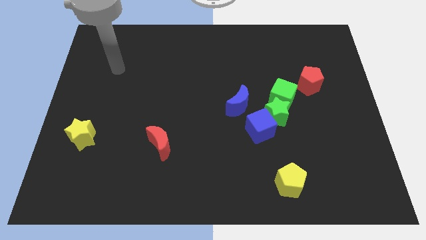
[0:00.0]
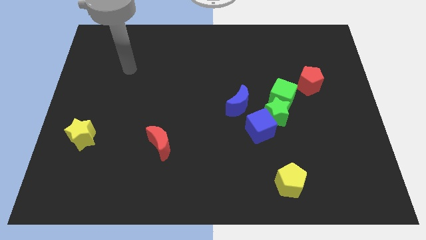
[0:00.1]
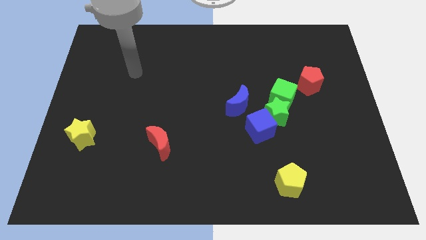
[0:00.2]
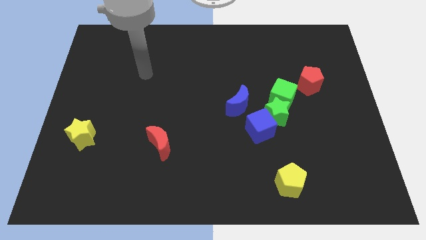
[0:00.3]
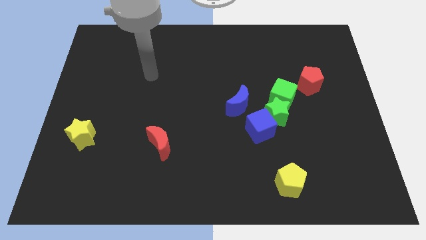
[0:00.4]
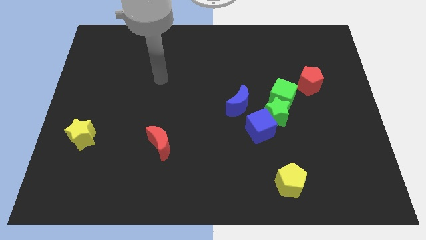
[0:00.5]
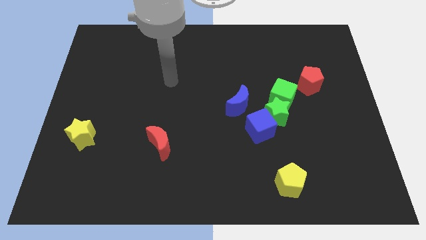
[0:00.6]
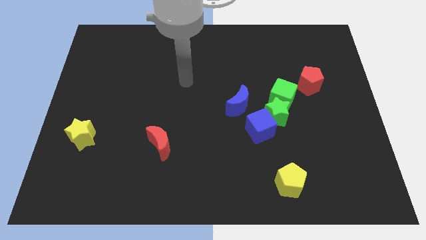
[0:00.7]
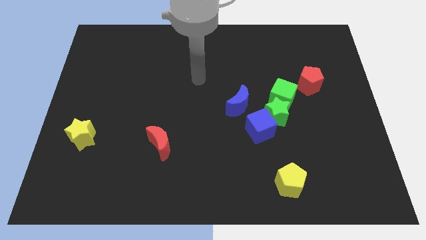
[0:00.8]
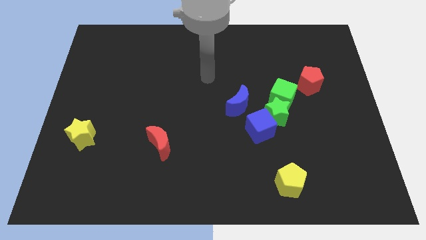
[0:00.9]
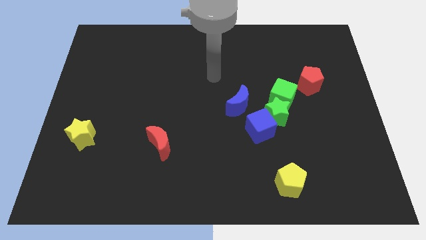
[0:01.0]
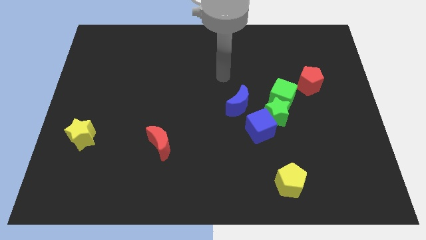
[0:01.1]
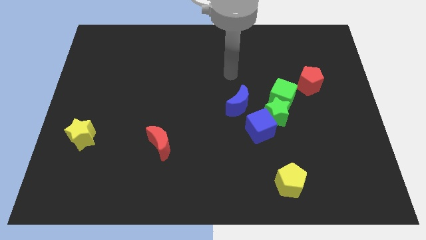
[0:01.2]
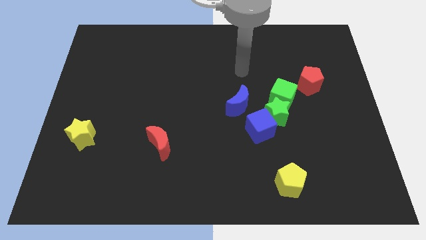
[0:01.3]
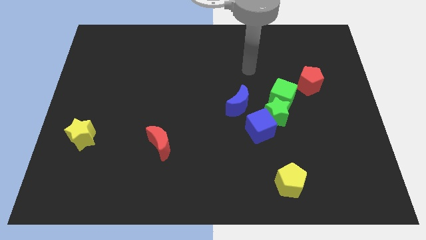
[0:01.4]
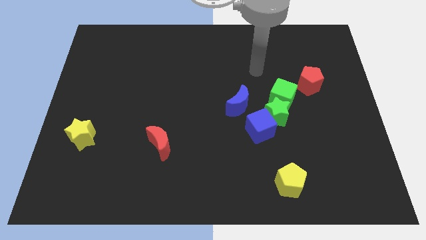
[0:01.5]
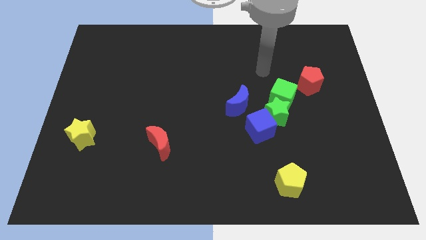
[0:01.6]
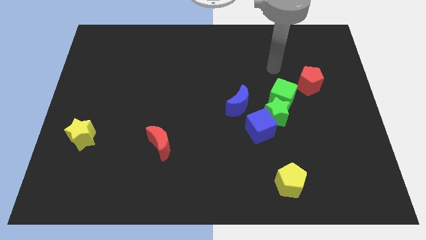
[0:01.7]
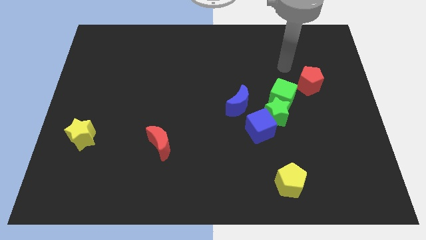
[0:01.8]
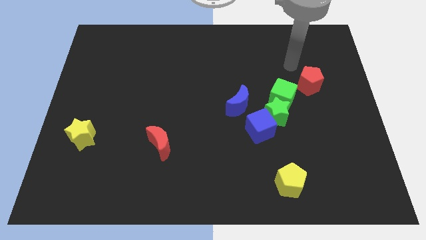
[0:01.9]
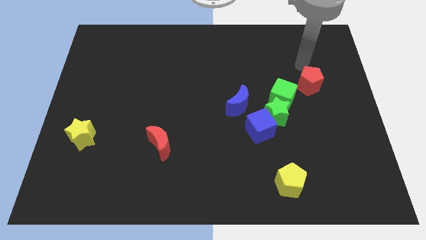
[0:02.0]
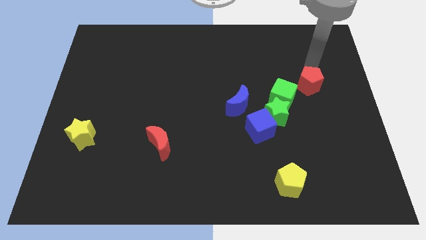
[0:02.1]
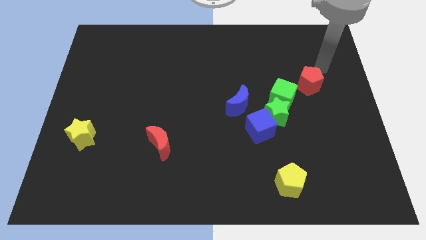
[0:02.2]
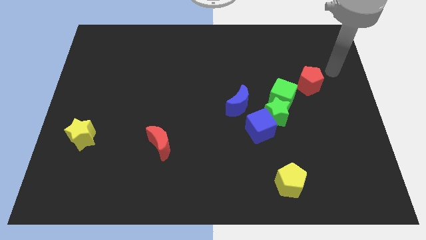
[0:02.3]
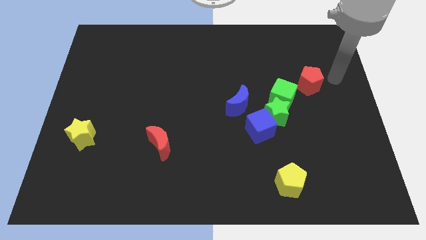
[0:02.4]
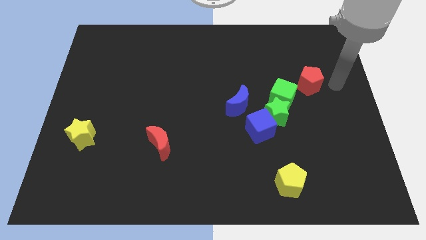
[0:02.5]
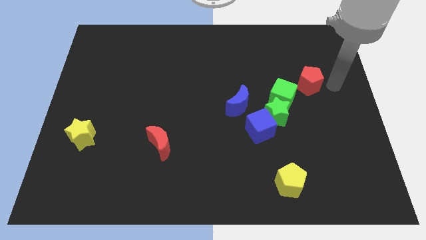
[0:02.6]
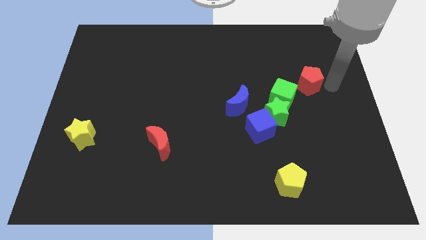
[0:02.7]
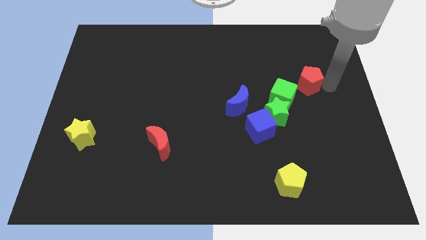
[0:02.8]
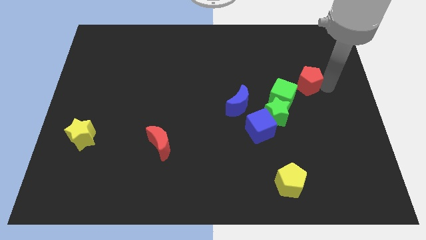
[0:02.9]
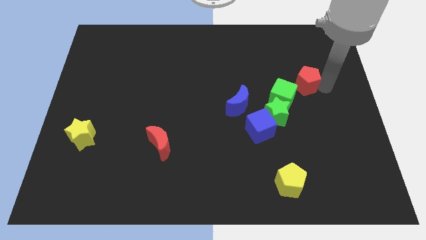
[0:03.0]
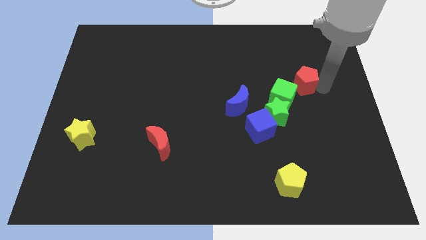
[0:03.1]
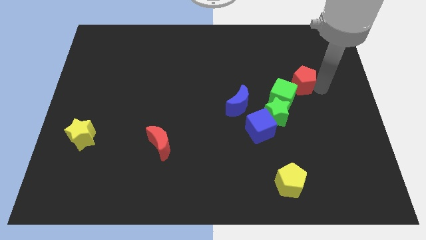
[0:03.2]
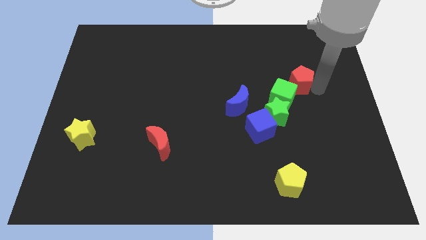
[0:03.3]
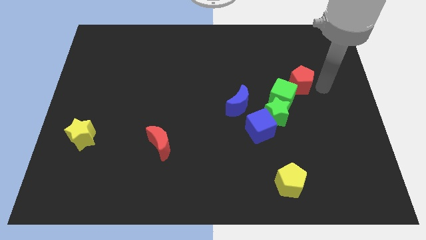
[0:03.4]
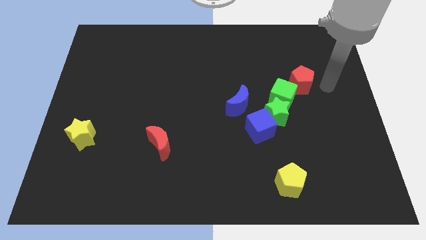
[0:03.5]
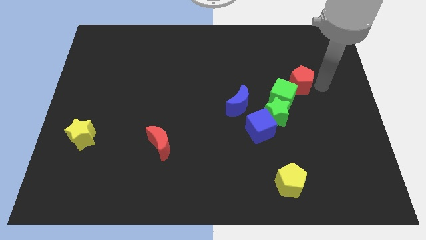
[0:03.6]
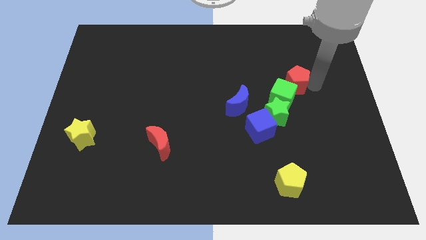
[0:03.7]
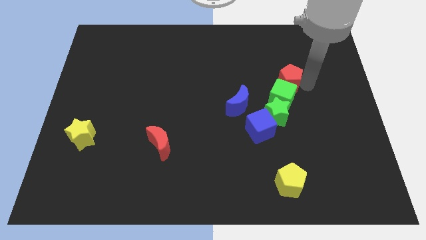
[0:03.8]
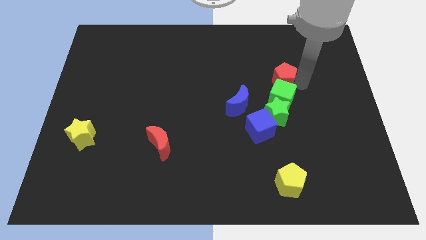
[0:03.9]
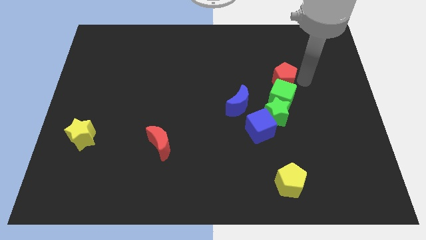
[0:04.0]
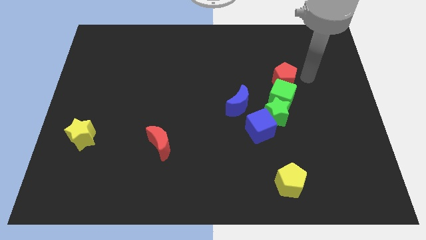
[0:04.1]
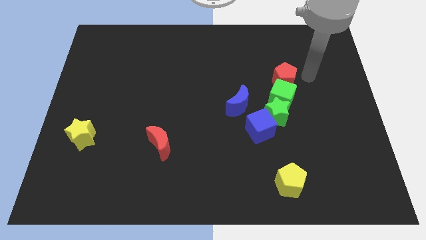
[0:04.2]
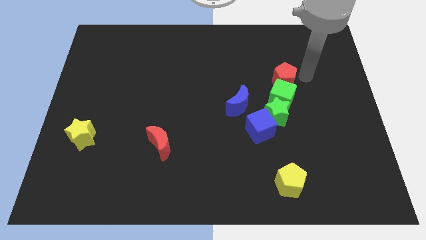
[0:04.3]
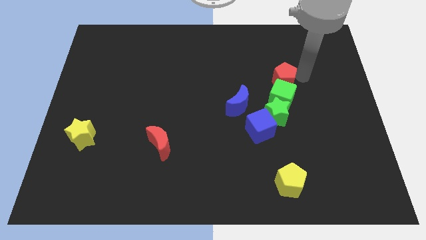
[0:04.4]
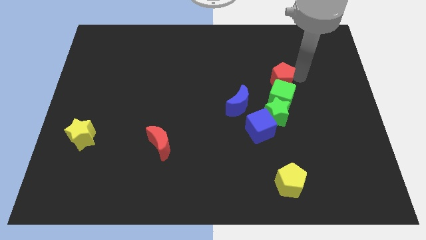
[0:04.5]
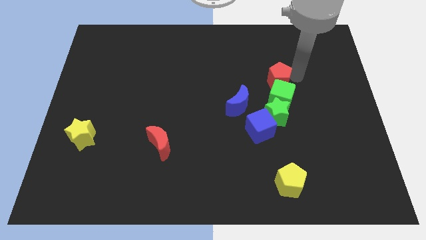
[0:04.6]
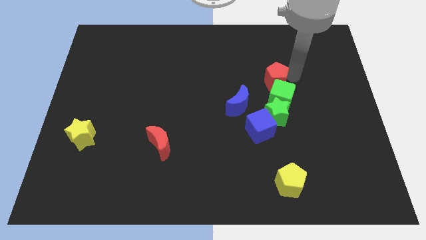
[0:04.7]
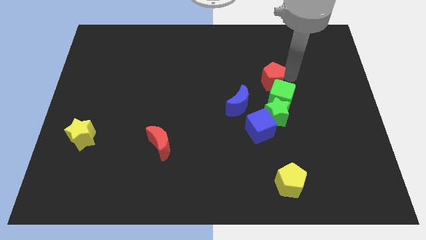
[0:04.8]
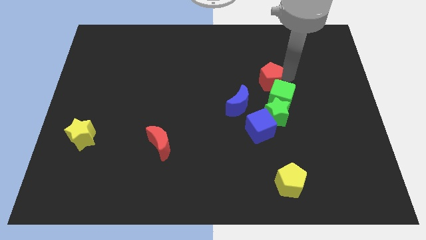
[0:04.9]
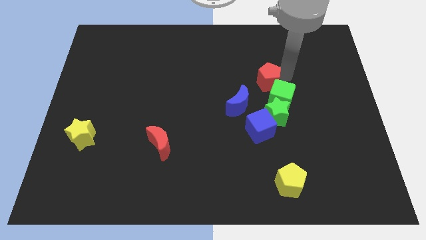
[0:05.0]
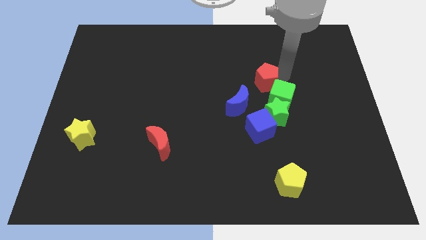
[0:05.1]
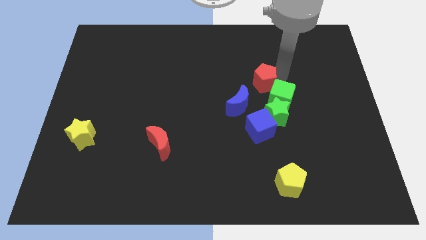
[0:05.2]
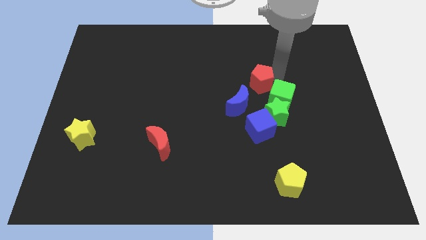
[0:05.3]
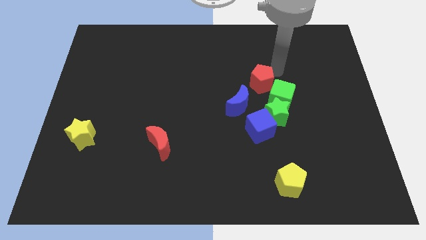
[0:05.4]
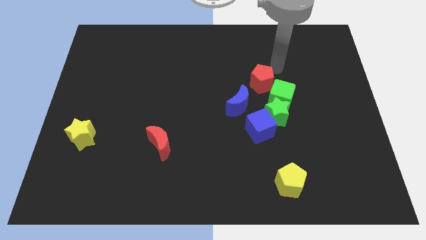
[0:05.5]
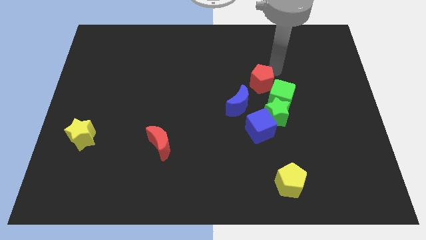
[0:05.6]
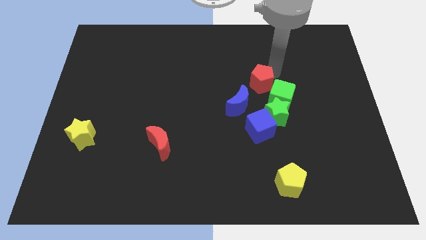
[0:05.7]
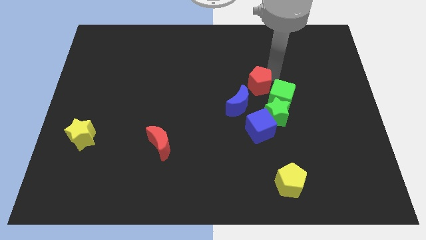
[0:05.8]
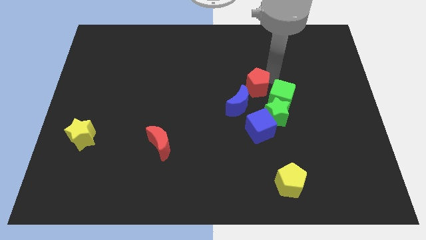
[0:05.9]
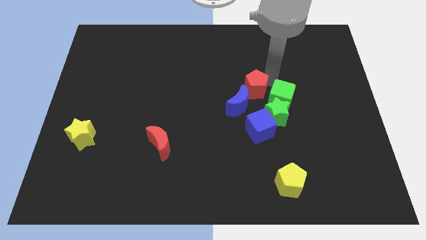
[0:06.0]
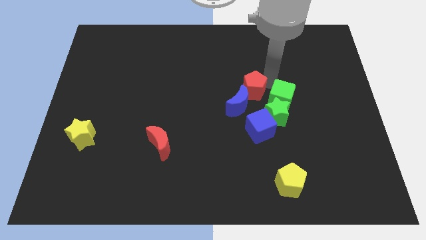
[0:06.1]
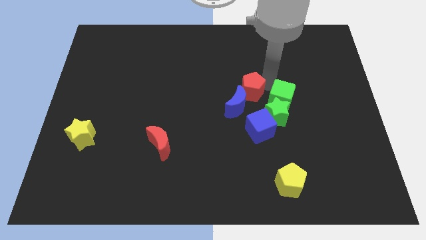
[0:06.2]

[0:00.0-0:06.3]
move the red pentagon close to the blue moon
